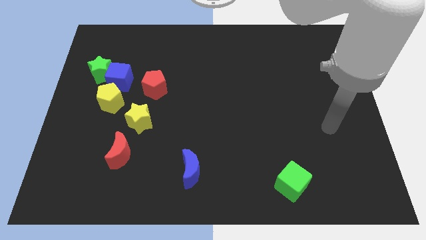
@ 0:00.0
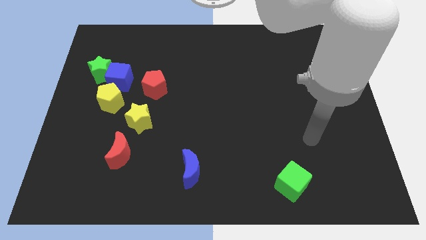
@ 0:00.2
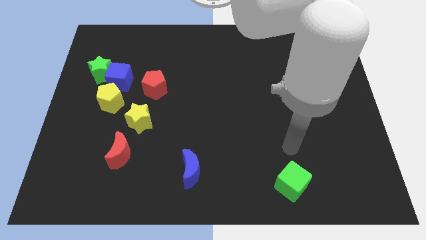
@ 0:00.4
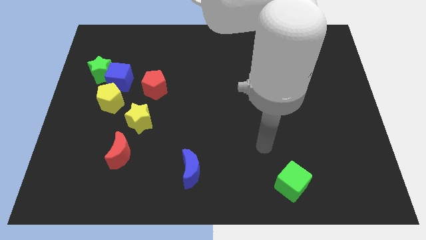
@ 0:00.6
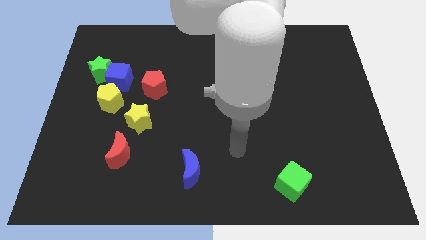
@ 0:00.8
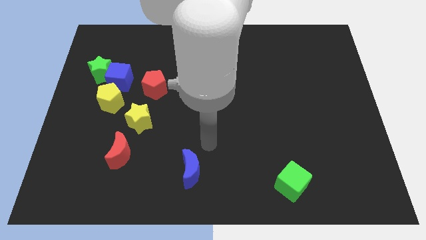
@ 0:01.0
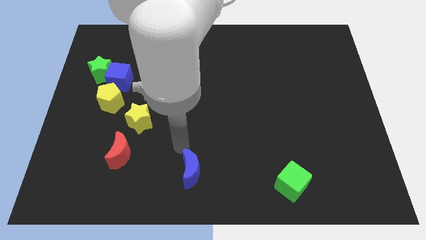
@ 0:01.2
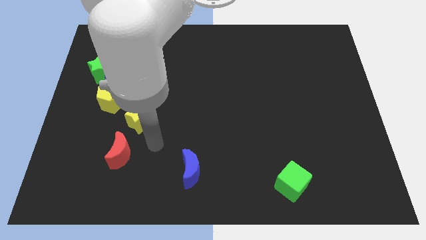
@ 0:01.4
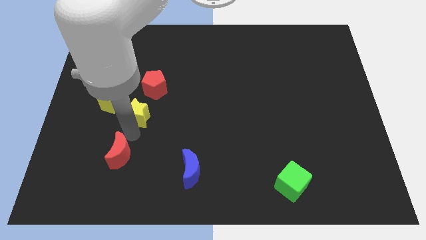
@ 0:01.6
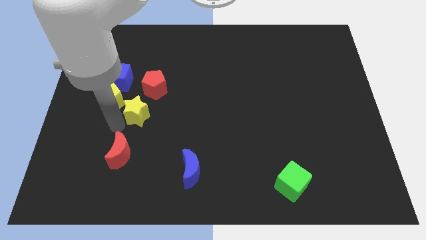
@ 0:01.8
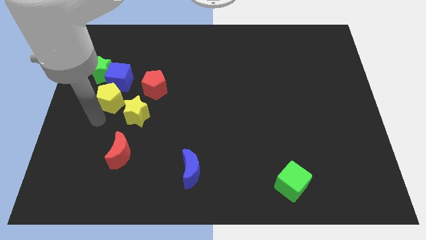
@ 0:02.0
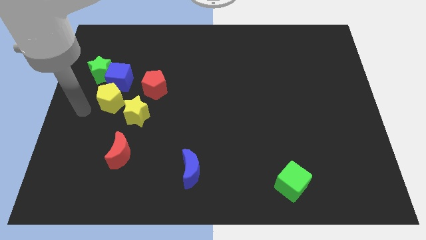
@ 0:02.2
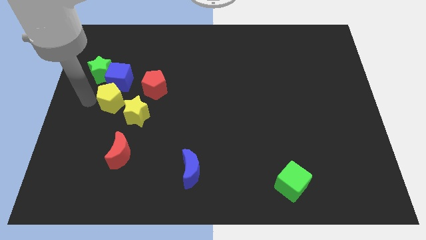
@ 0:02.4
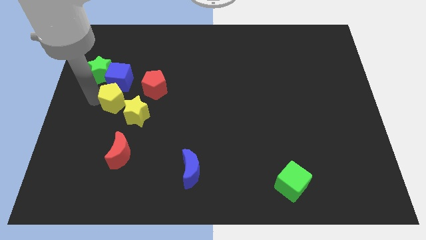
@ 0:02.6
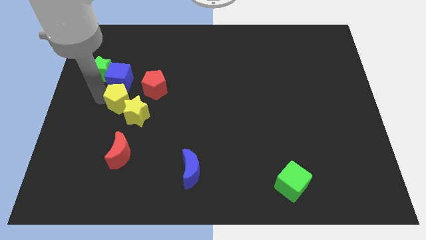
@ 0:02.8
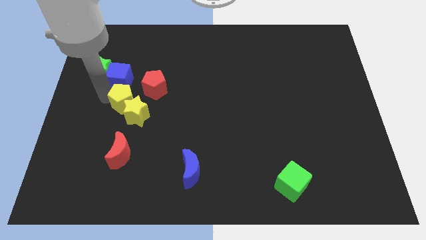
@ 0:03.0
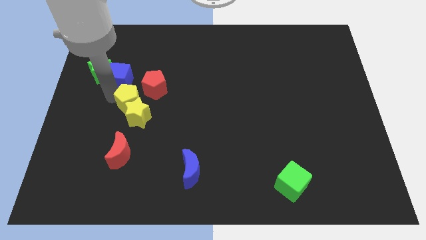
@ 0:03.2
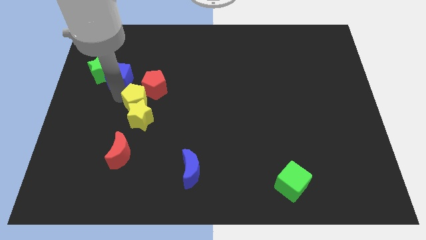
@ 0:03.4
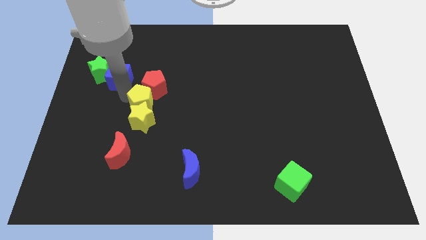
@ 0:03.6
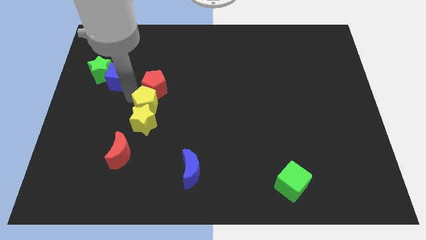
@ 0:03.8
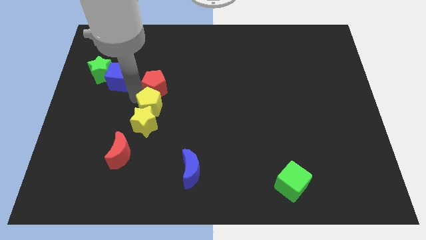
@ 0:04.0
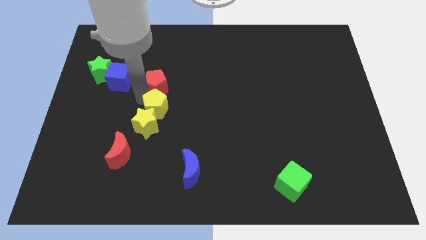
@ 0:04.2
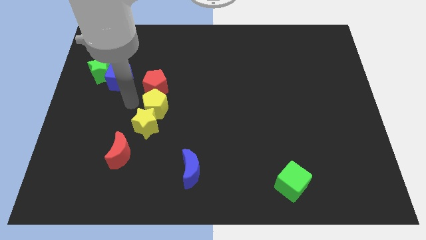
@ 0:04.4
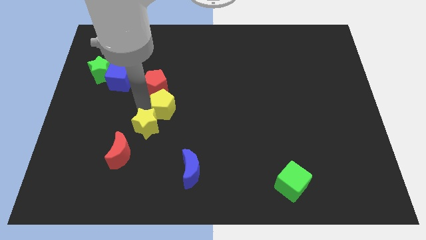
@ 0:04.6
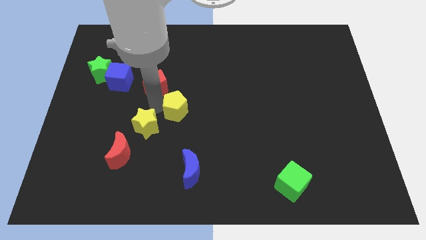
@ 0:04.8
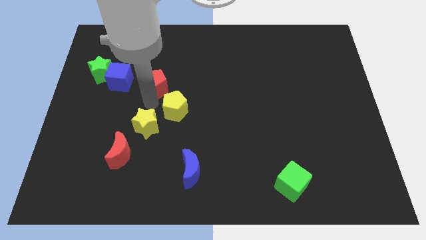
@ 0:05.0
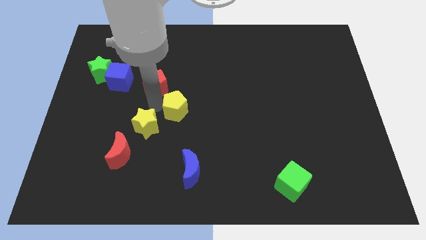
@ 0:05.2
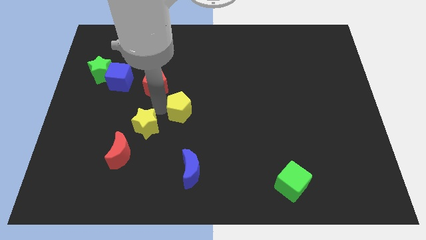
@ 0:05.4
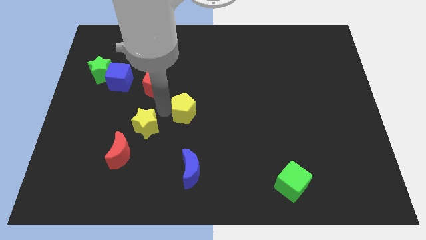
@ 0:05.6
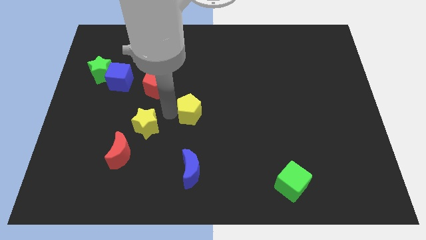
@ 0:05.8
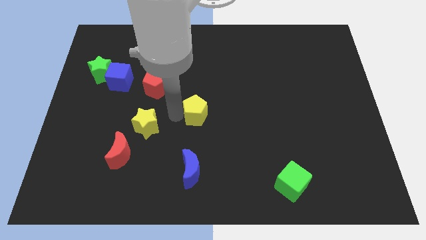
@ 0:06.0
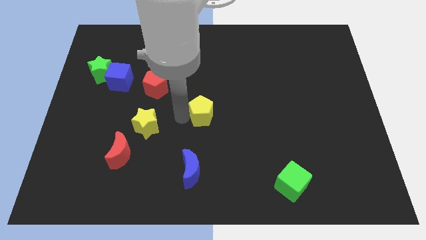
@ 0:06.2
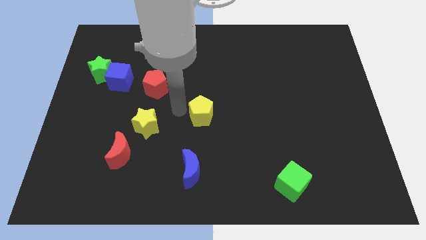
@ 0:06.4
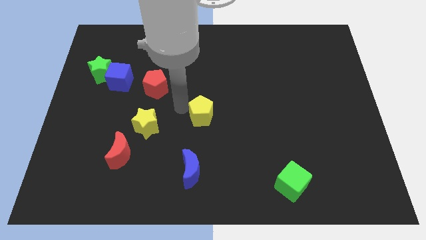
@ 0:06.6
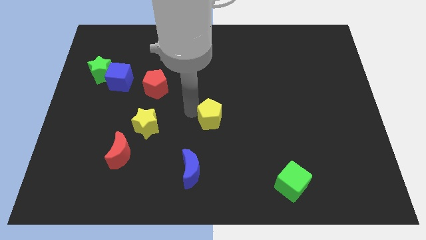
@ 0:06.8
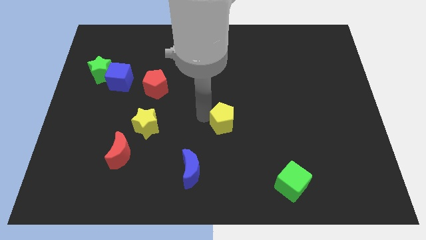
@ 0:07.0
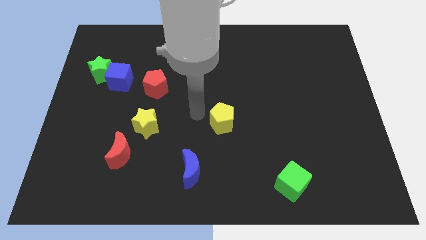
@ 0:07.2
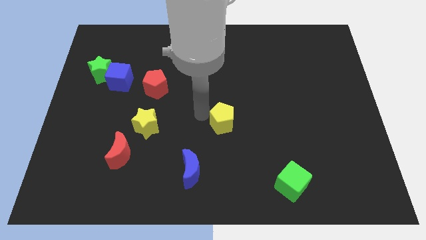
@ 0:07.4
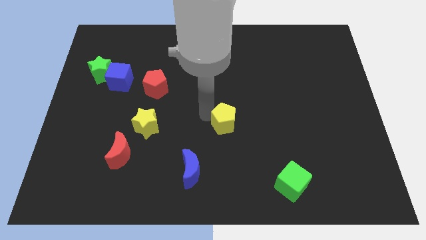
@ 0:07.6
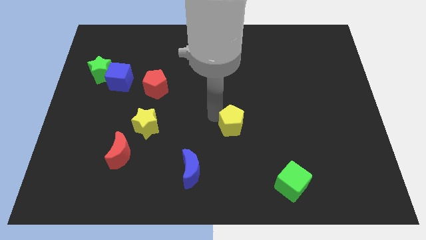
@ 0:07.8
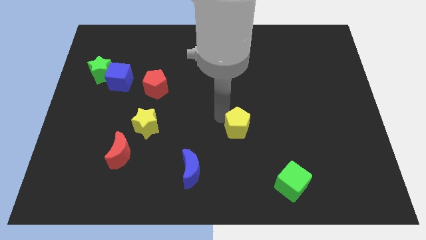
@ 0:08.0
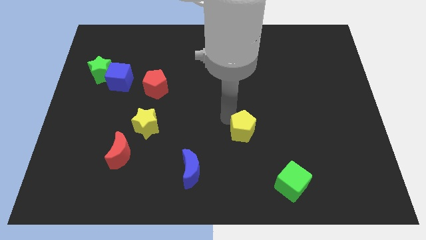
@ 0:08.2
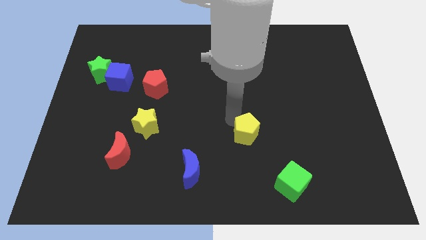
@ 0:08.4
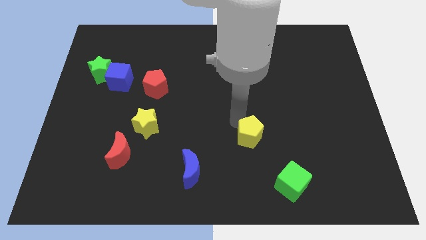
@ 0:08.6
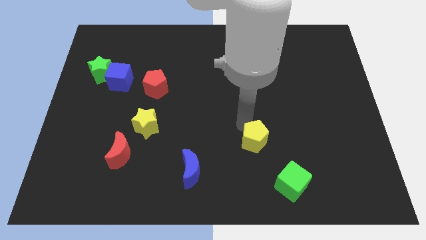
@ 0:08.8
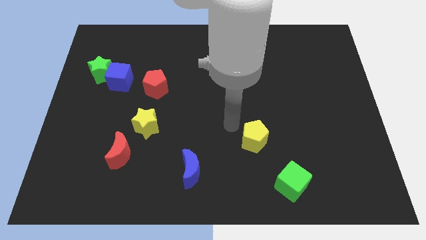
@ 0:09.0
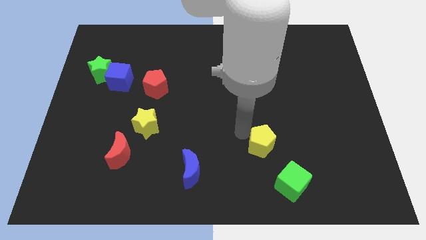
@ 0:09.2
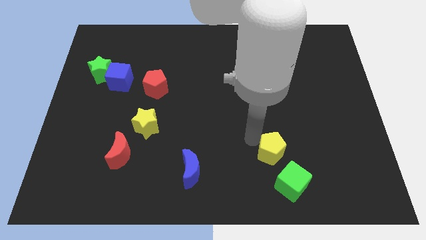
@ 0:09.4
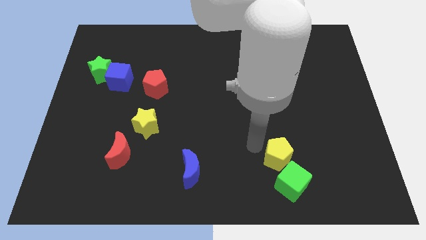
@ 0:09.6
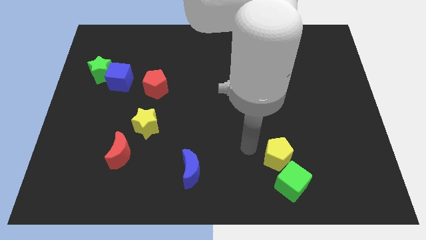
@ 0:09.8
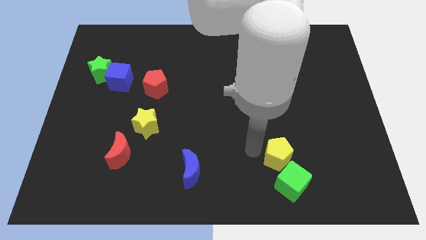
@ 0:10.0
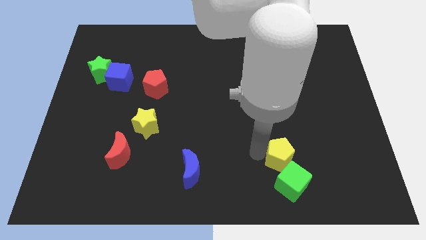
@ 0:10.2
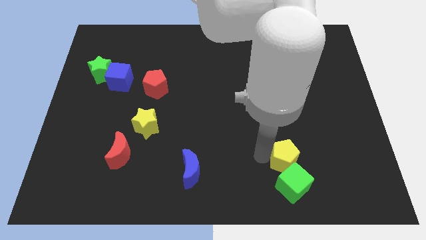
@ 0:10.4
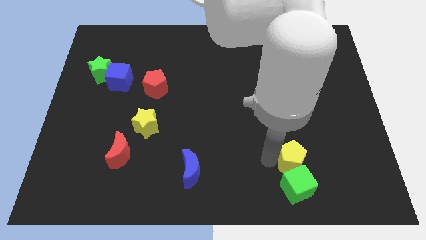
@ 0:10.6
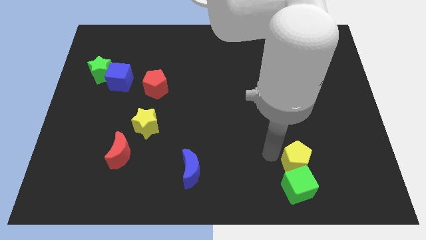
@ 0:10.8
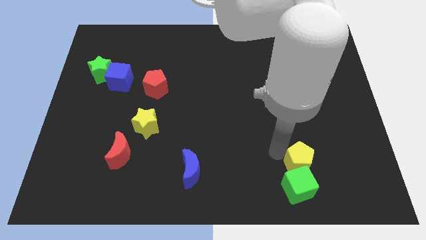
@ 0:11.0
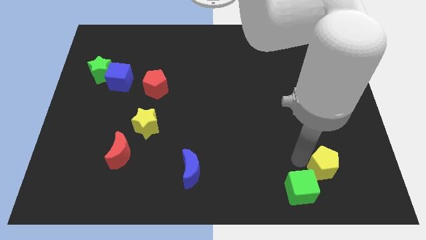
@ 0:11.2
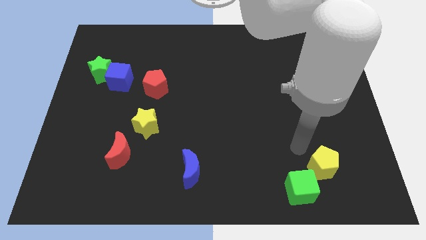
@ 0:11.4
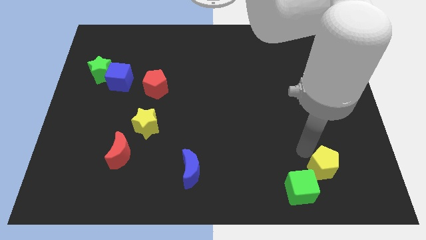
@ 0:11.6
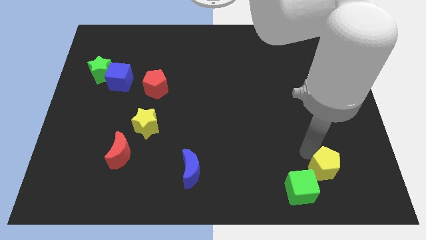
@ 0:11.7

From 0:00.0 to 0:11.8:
push the yellow pentagon right of the green cube

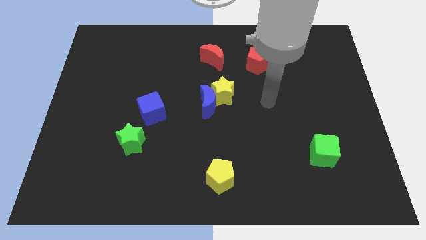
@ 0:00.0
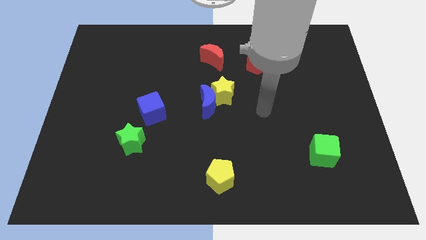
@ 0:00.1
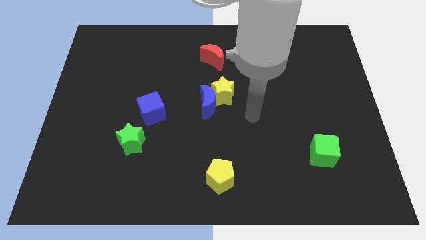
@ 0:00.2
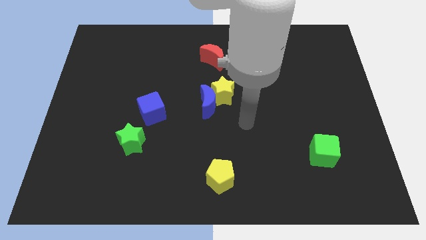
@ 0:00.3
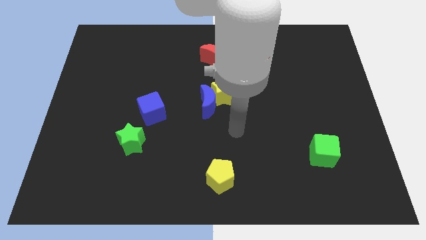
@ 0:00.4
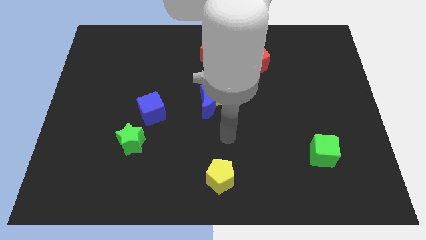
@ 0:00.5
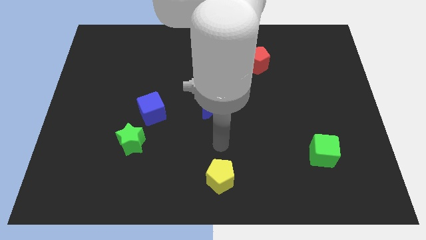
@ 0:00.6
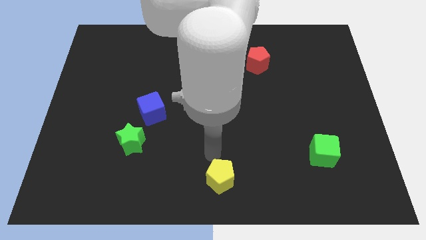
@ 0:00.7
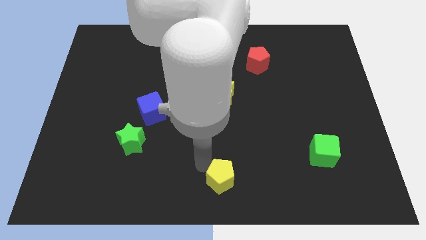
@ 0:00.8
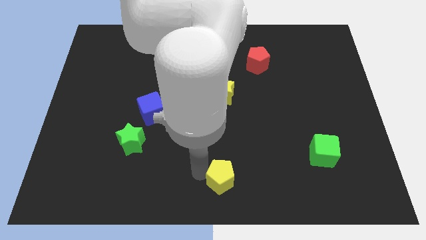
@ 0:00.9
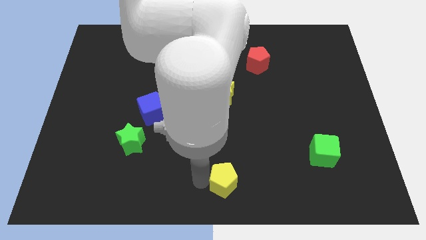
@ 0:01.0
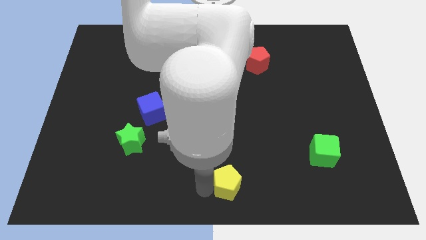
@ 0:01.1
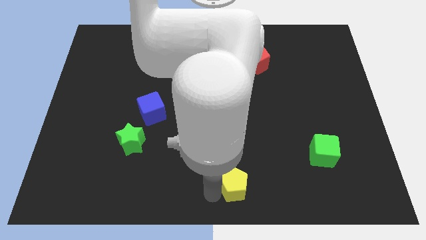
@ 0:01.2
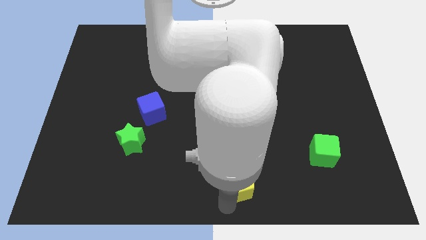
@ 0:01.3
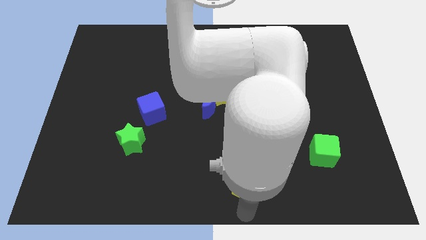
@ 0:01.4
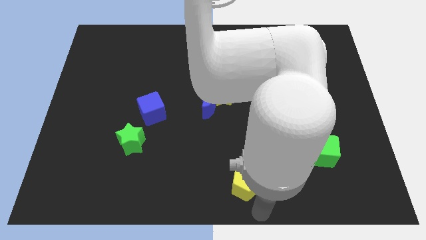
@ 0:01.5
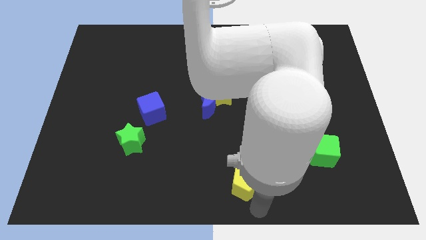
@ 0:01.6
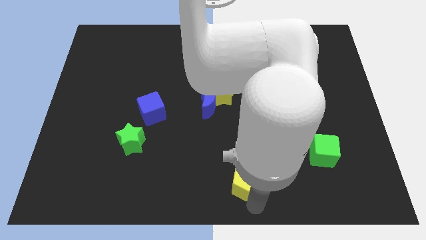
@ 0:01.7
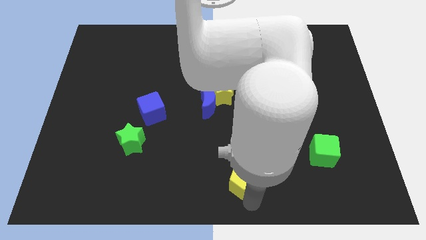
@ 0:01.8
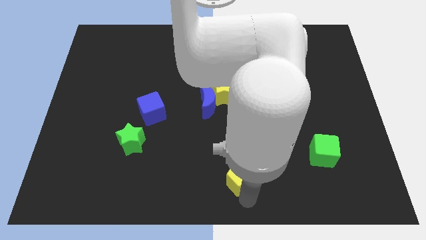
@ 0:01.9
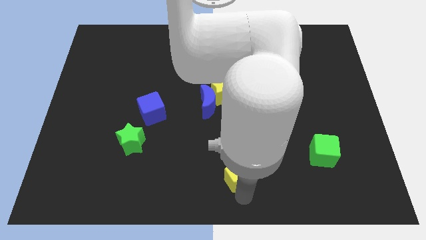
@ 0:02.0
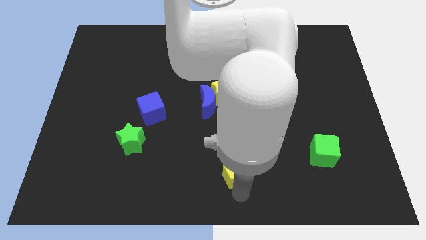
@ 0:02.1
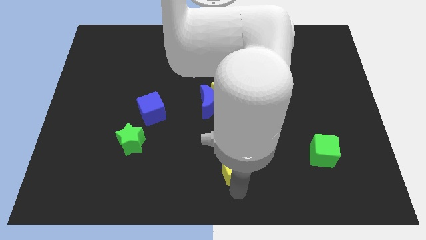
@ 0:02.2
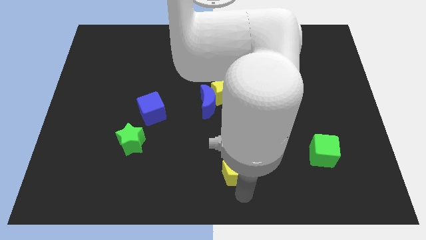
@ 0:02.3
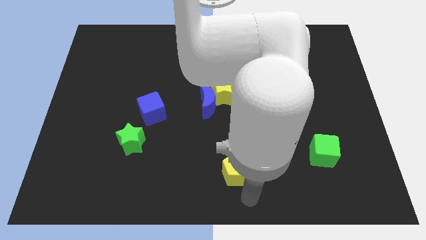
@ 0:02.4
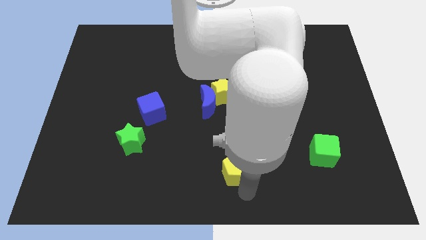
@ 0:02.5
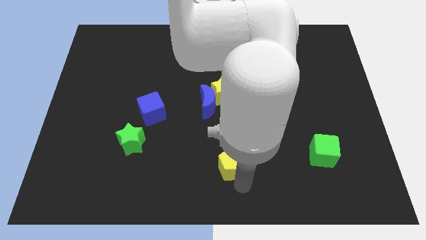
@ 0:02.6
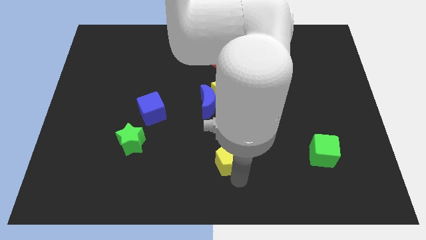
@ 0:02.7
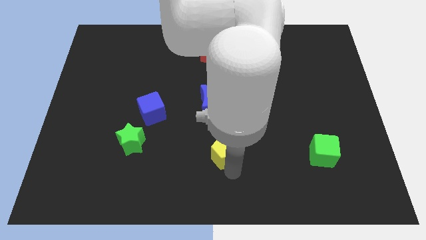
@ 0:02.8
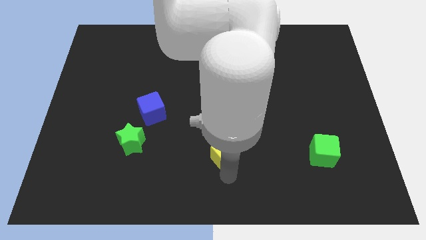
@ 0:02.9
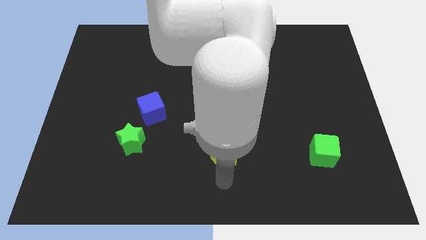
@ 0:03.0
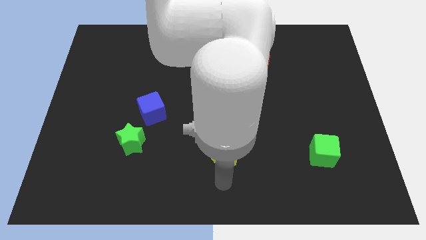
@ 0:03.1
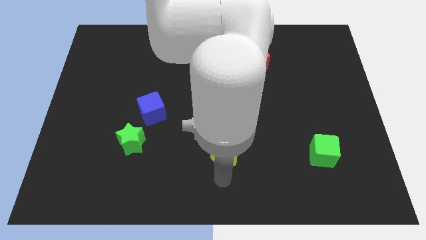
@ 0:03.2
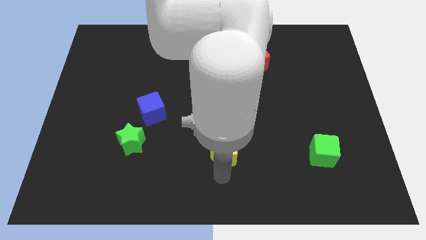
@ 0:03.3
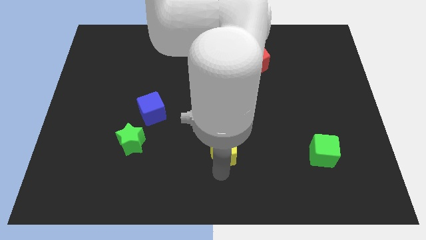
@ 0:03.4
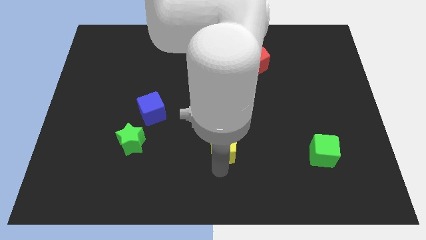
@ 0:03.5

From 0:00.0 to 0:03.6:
move the yellow pentagon to the bottom of the yellow star
